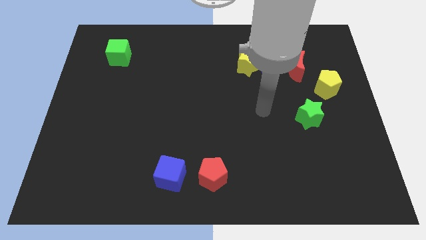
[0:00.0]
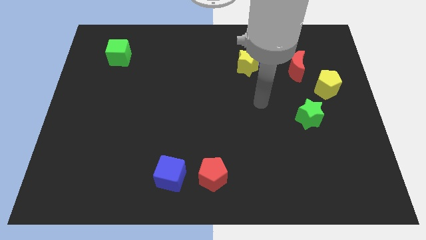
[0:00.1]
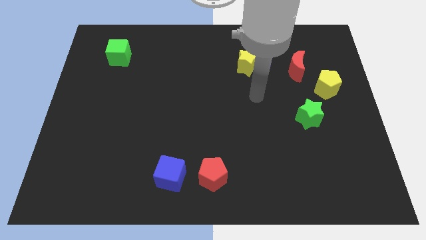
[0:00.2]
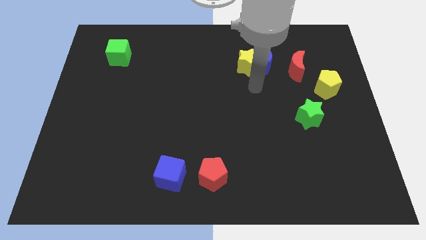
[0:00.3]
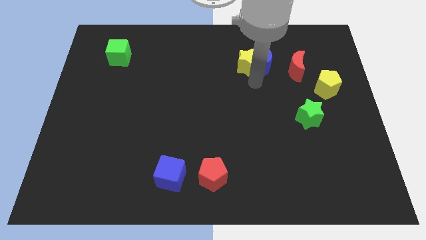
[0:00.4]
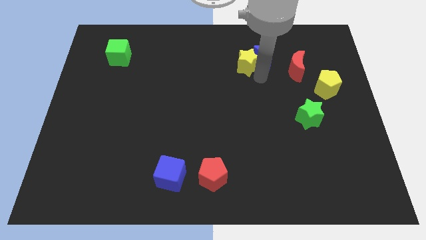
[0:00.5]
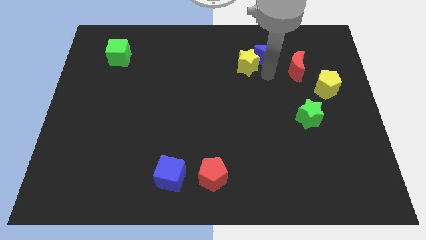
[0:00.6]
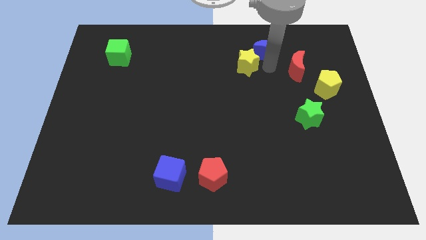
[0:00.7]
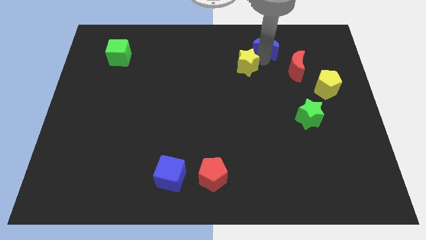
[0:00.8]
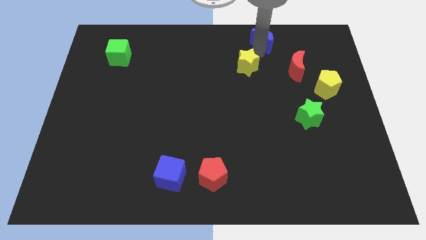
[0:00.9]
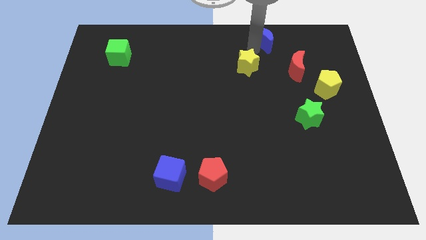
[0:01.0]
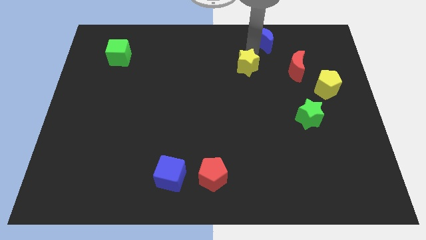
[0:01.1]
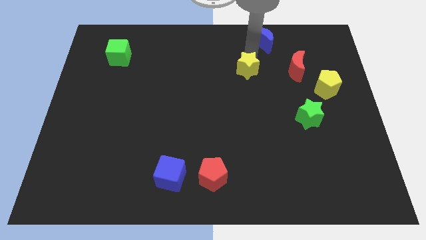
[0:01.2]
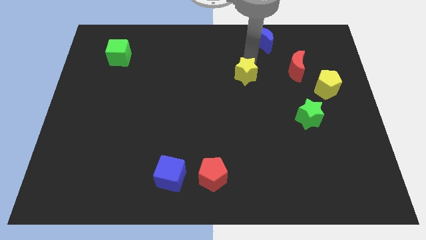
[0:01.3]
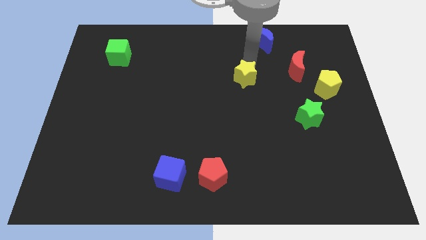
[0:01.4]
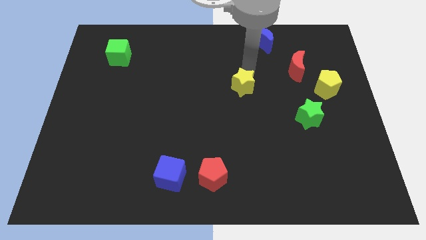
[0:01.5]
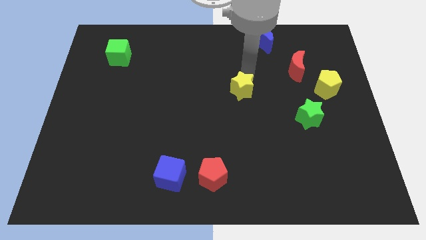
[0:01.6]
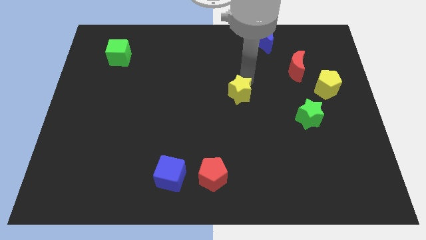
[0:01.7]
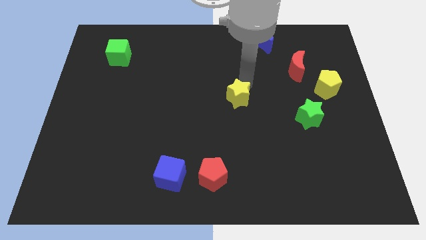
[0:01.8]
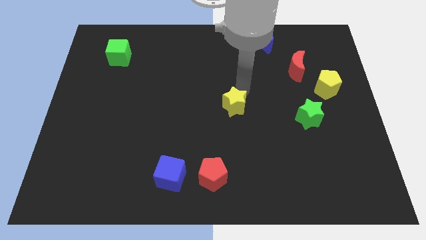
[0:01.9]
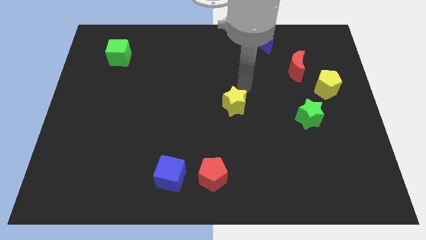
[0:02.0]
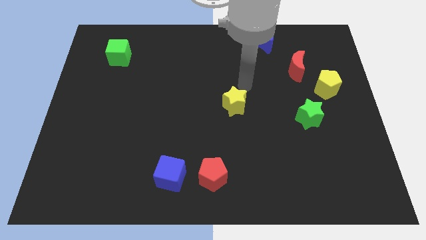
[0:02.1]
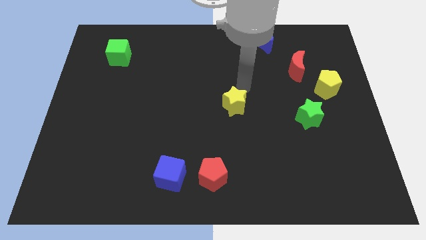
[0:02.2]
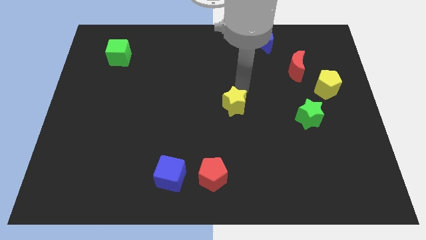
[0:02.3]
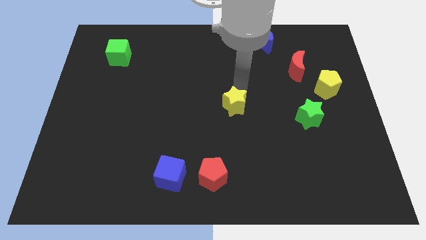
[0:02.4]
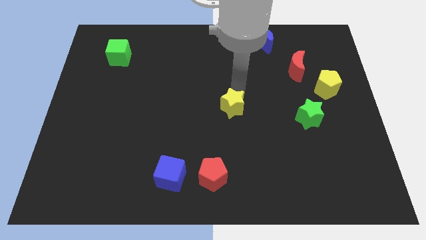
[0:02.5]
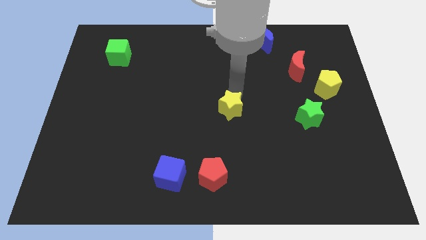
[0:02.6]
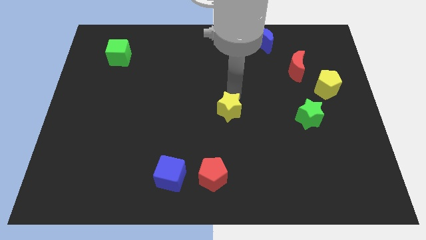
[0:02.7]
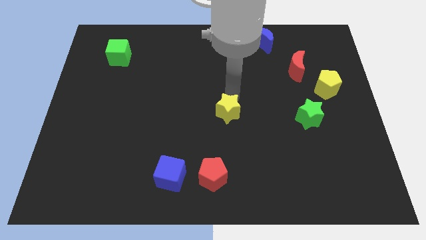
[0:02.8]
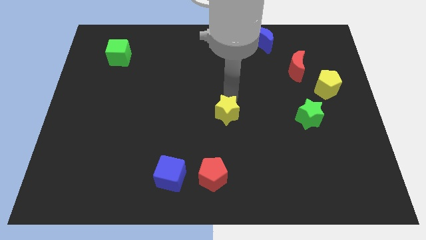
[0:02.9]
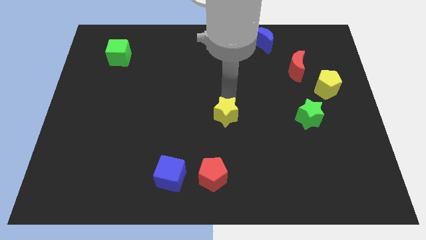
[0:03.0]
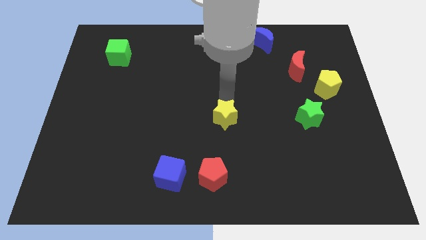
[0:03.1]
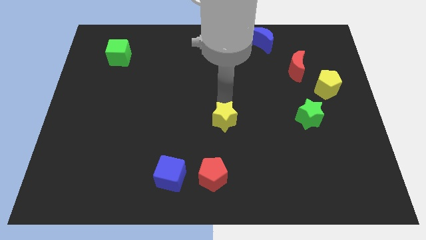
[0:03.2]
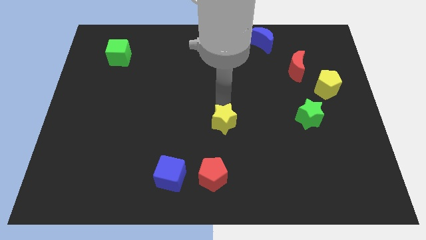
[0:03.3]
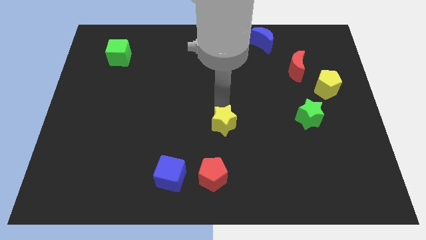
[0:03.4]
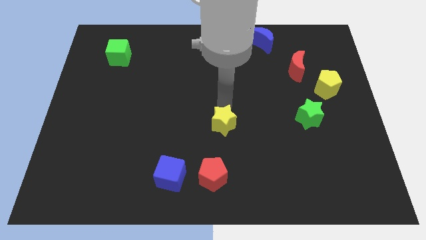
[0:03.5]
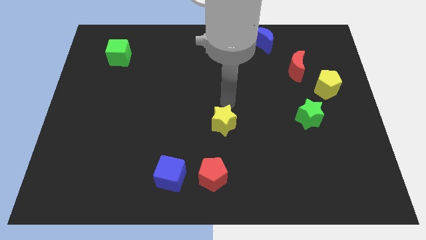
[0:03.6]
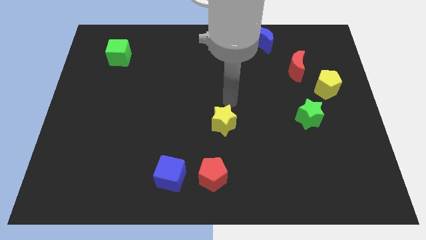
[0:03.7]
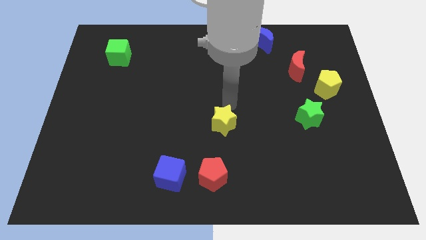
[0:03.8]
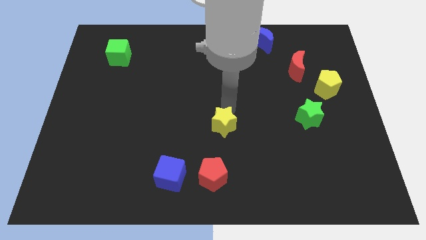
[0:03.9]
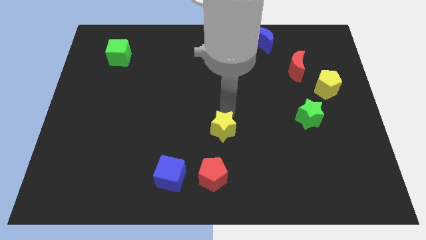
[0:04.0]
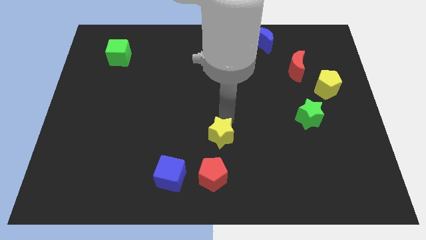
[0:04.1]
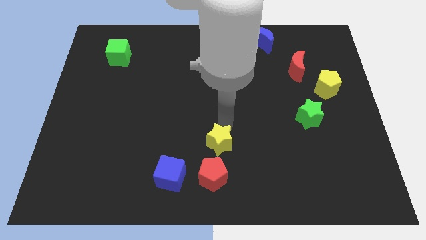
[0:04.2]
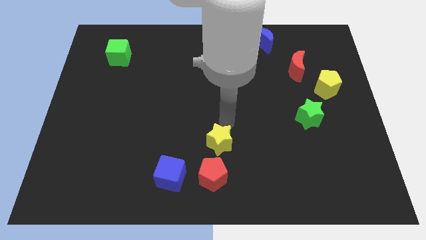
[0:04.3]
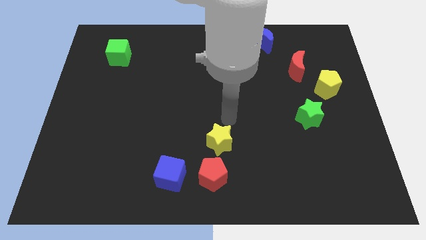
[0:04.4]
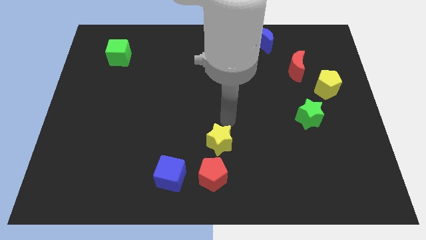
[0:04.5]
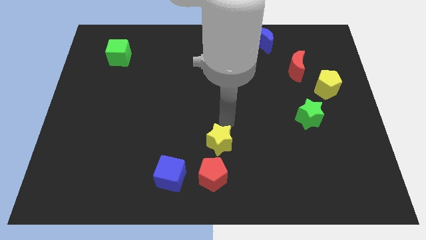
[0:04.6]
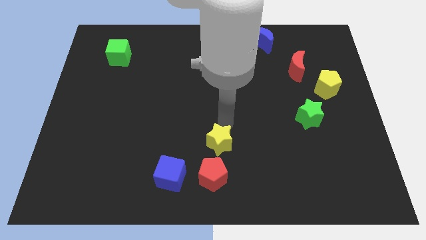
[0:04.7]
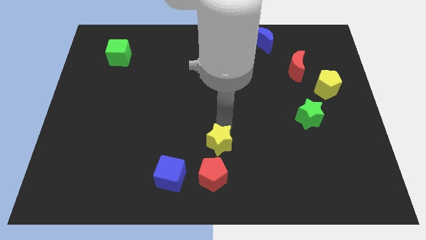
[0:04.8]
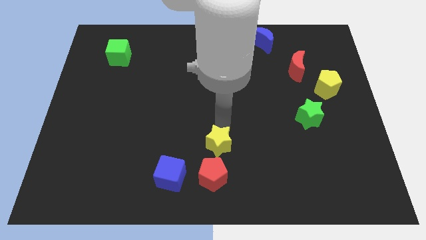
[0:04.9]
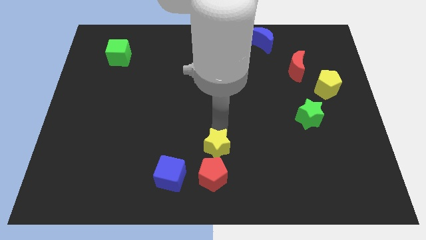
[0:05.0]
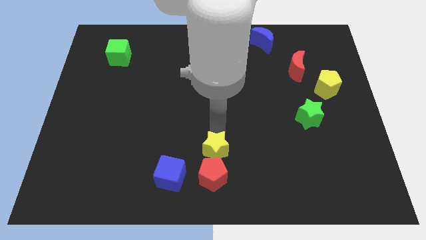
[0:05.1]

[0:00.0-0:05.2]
move the yellow star next to the red pentagon

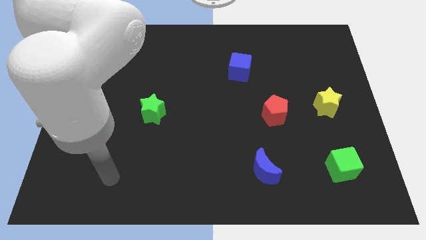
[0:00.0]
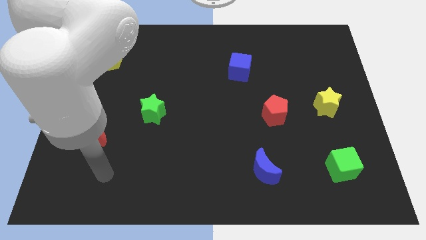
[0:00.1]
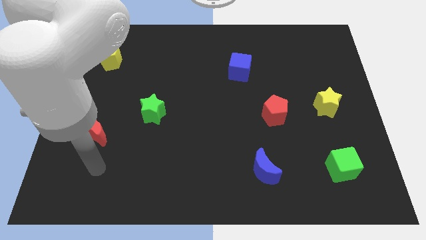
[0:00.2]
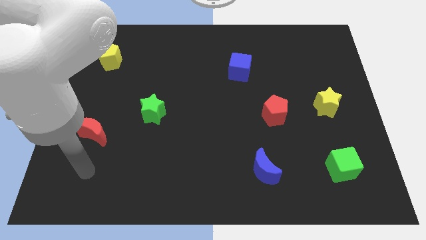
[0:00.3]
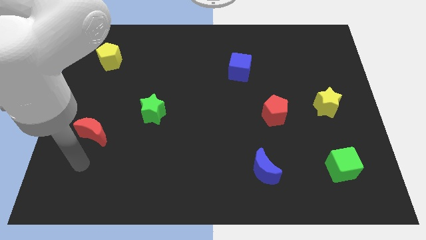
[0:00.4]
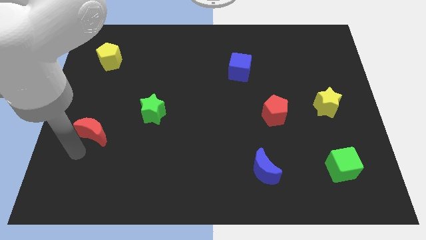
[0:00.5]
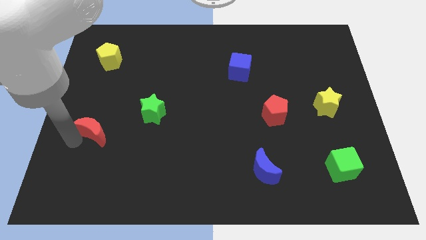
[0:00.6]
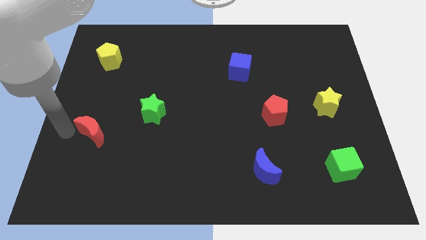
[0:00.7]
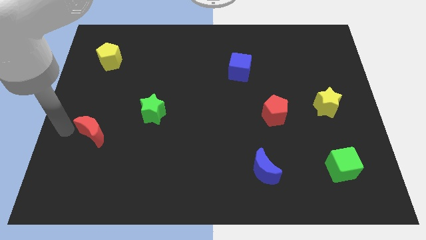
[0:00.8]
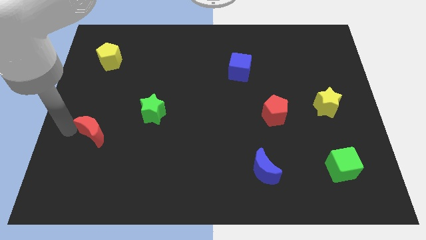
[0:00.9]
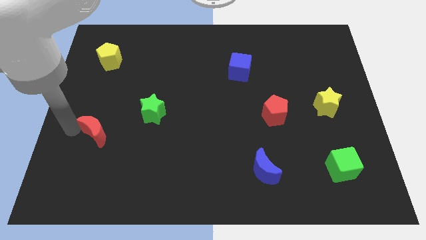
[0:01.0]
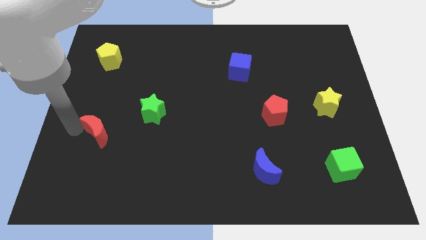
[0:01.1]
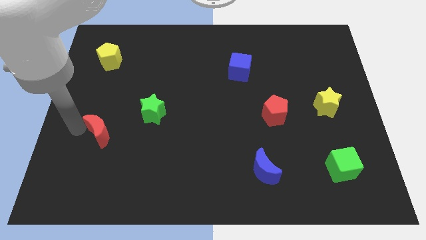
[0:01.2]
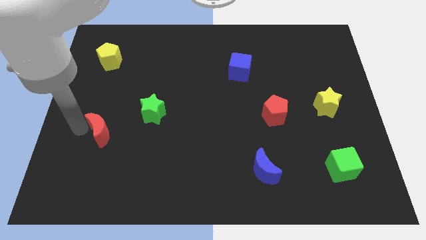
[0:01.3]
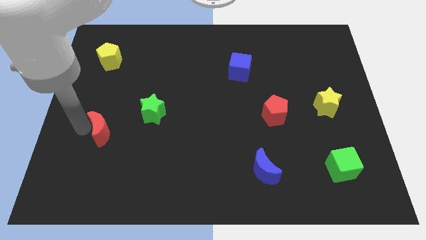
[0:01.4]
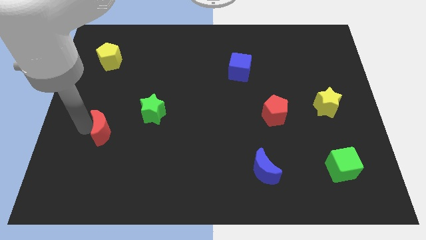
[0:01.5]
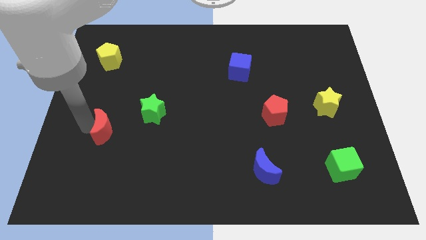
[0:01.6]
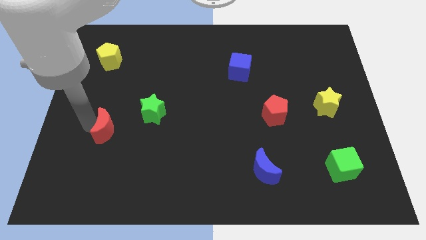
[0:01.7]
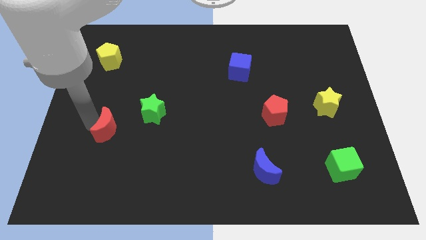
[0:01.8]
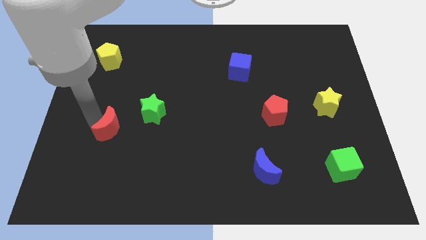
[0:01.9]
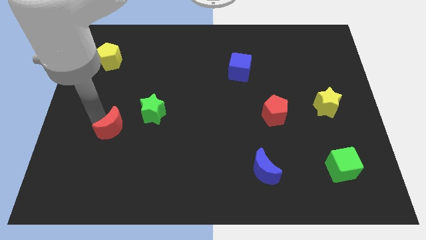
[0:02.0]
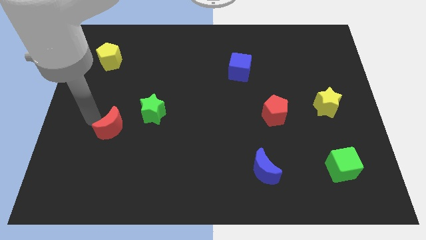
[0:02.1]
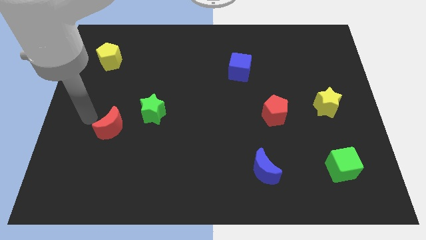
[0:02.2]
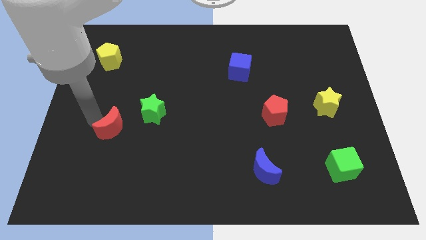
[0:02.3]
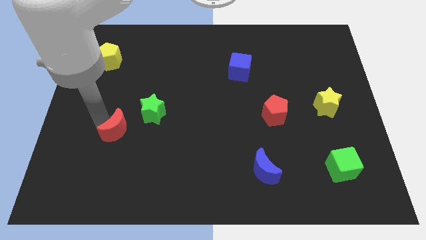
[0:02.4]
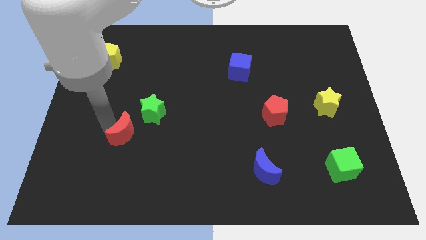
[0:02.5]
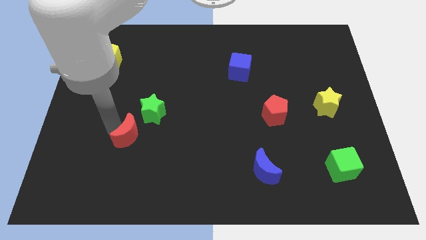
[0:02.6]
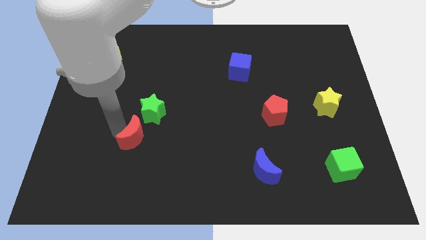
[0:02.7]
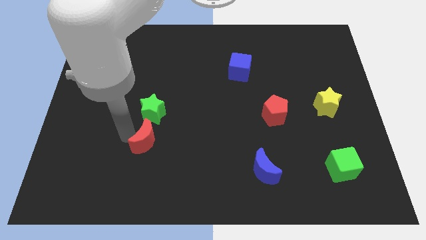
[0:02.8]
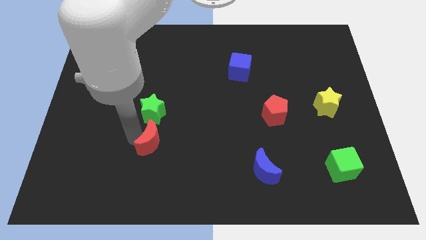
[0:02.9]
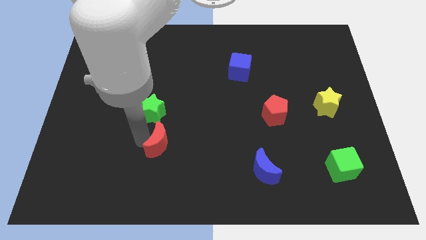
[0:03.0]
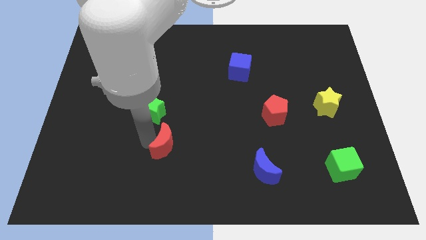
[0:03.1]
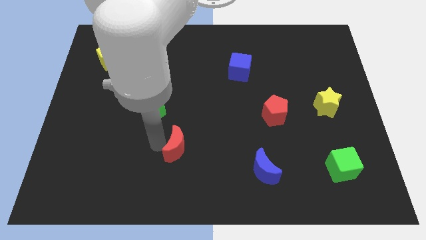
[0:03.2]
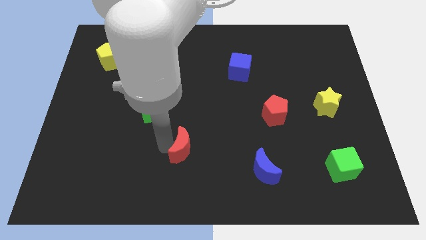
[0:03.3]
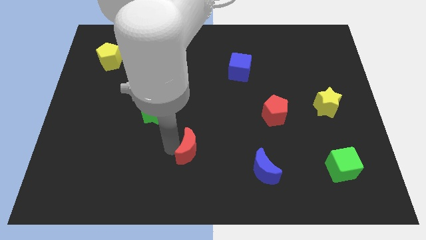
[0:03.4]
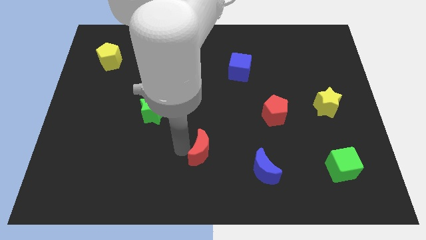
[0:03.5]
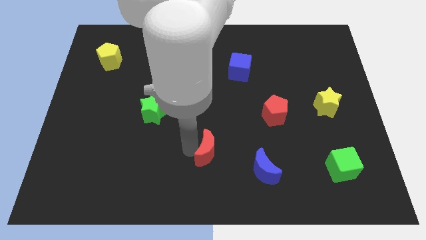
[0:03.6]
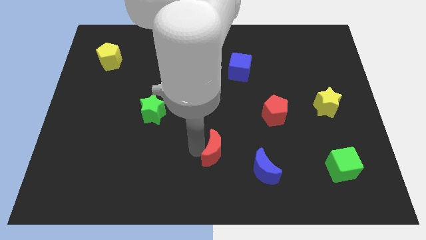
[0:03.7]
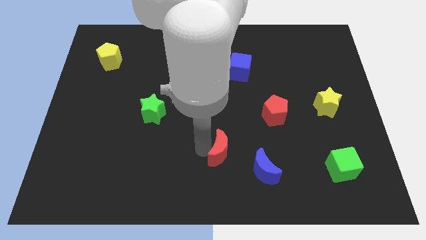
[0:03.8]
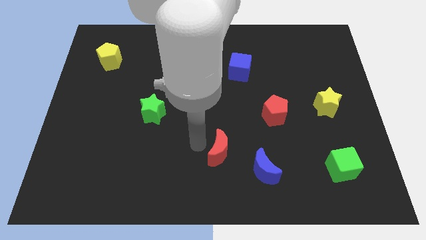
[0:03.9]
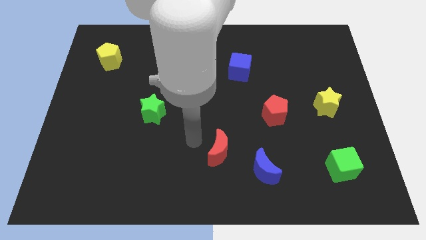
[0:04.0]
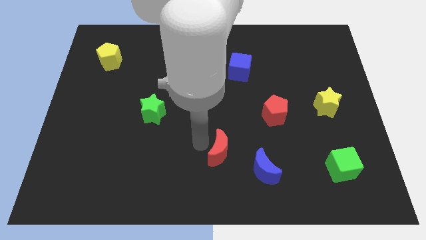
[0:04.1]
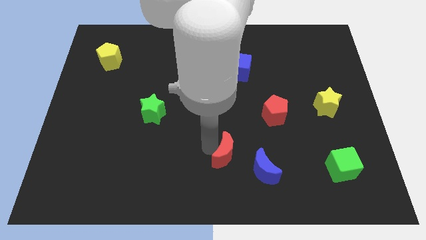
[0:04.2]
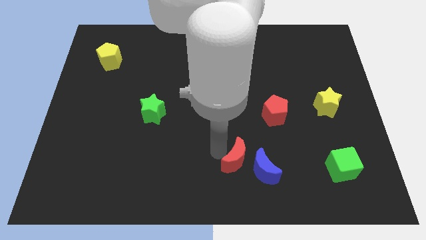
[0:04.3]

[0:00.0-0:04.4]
put the red moon next to the blue moon
